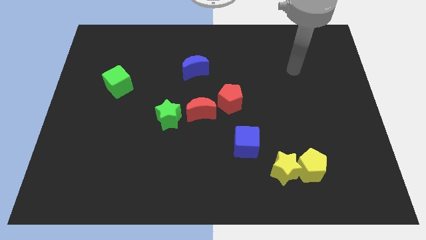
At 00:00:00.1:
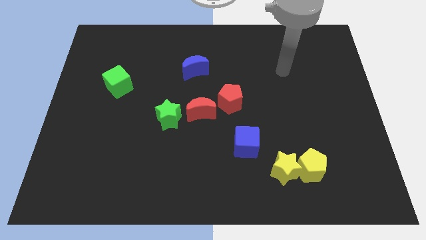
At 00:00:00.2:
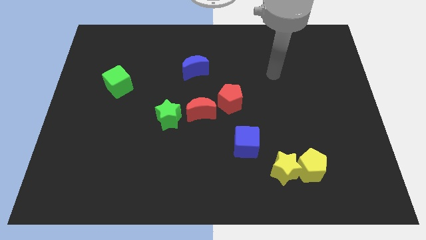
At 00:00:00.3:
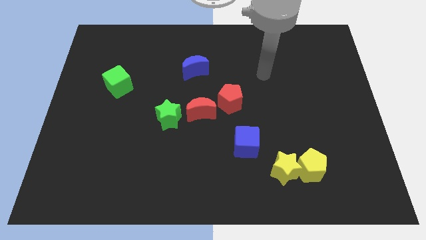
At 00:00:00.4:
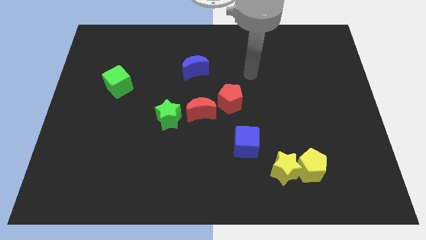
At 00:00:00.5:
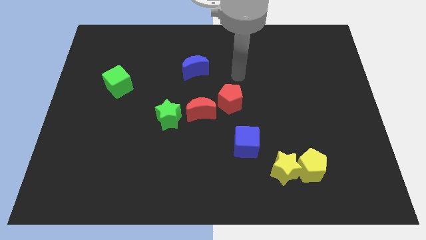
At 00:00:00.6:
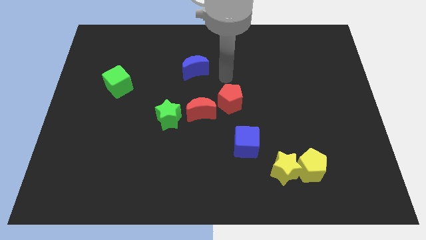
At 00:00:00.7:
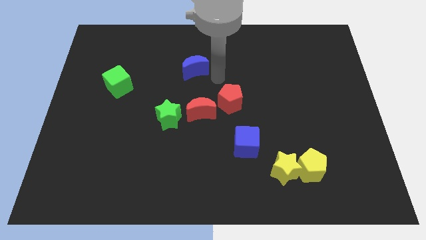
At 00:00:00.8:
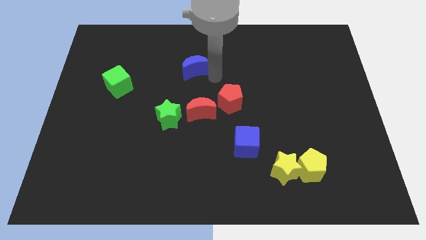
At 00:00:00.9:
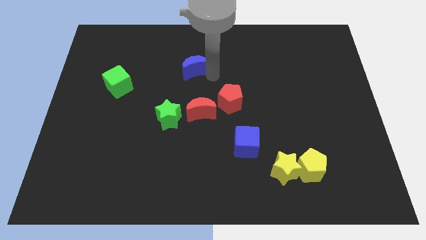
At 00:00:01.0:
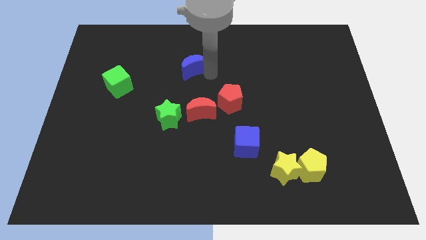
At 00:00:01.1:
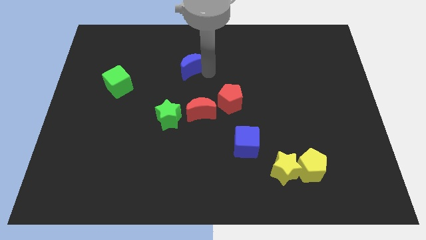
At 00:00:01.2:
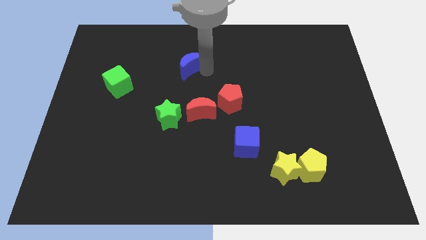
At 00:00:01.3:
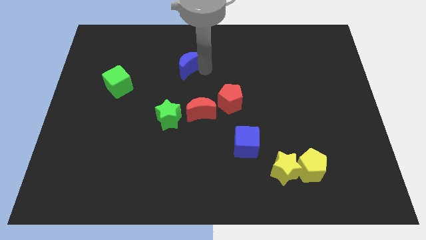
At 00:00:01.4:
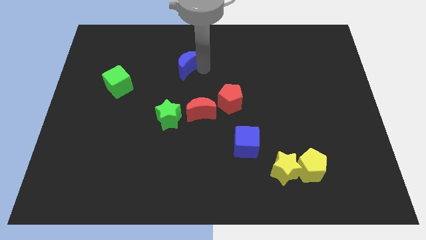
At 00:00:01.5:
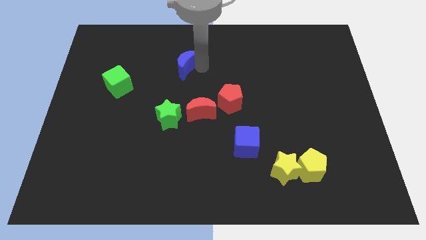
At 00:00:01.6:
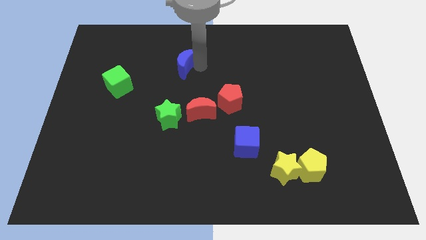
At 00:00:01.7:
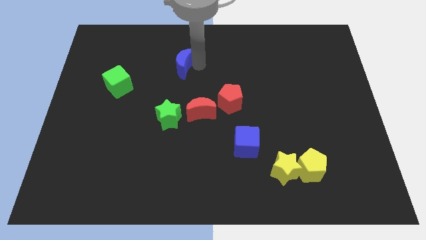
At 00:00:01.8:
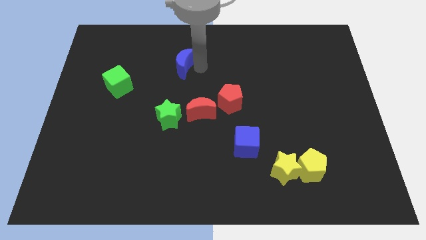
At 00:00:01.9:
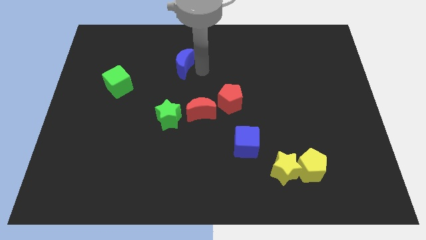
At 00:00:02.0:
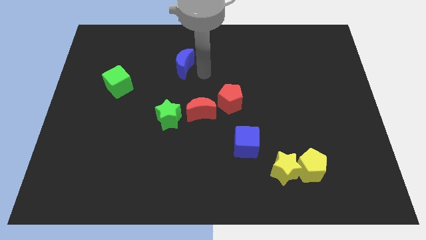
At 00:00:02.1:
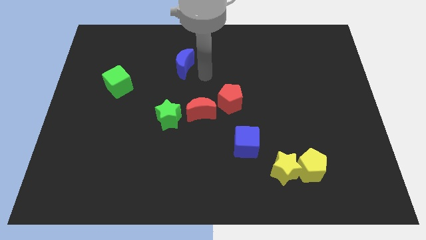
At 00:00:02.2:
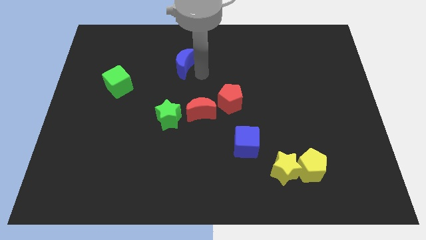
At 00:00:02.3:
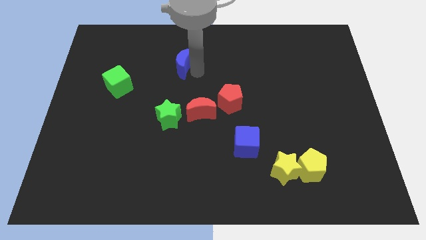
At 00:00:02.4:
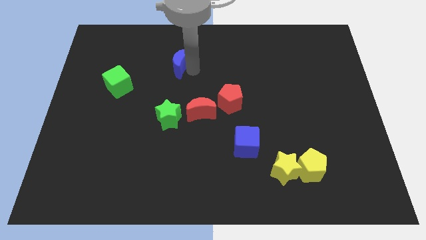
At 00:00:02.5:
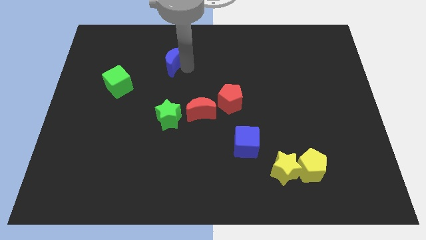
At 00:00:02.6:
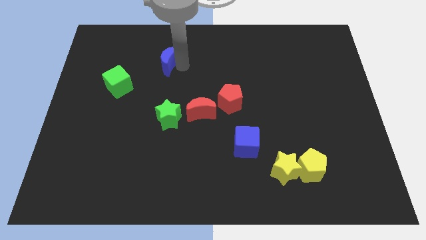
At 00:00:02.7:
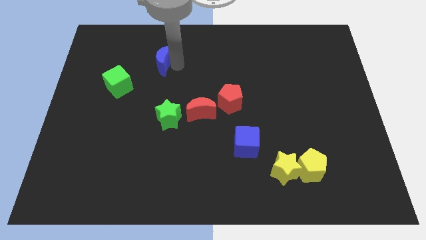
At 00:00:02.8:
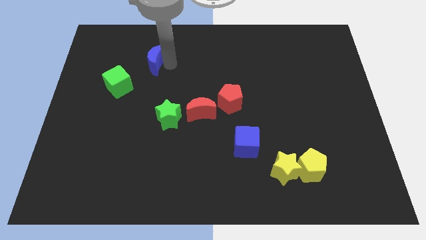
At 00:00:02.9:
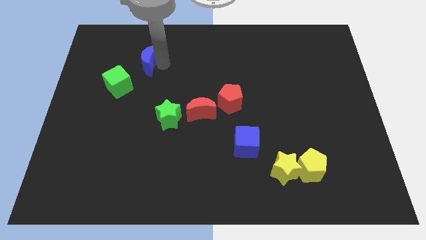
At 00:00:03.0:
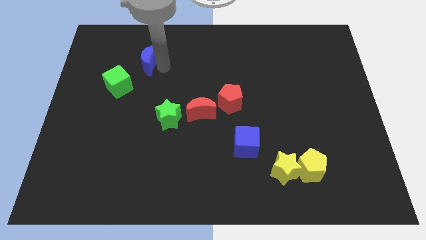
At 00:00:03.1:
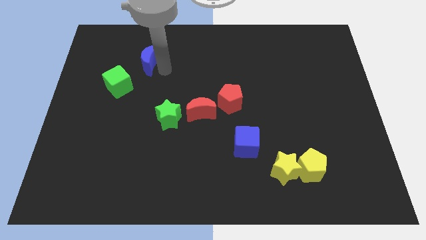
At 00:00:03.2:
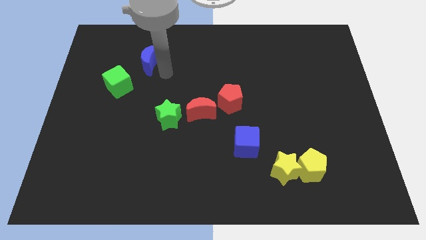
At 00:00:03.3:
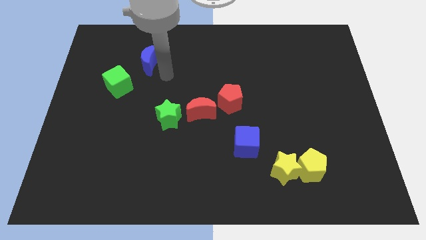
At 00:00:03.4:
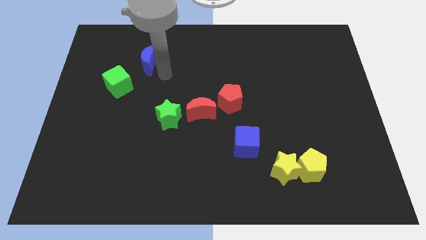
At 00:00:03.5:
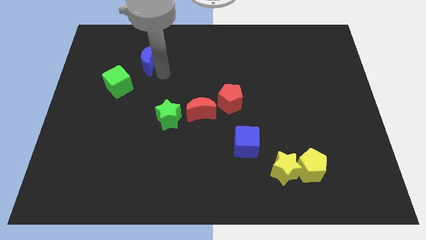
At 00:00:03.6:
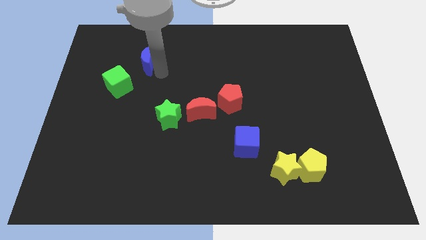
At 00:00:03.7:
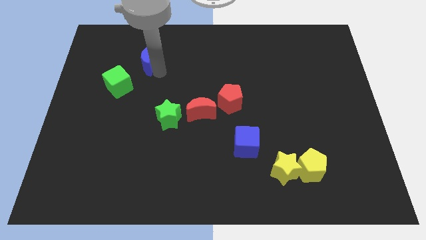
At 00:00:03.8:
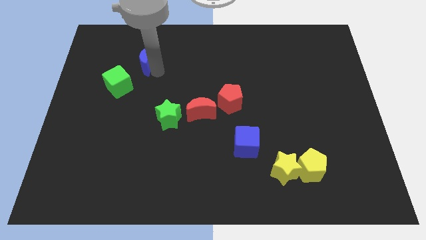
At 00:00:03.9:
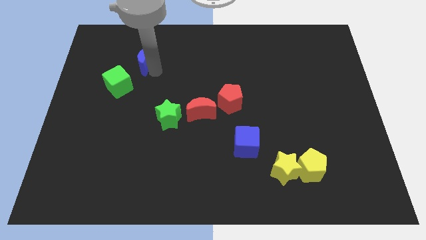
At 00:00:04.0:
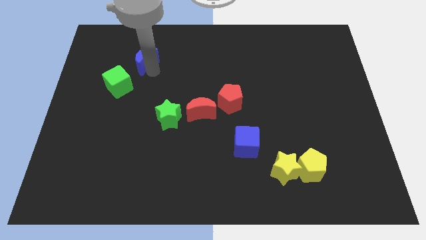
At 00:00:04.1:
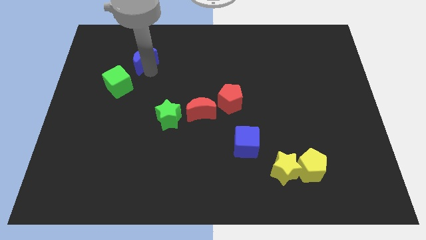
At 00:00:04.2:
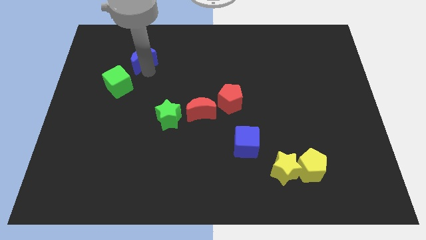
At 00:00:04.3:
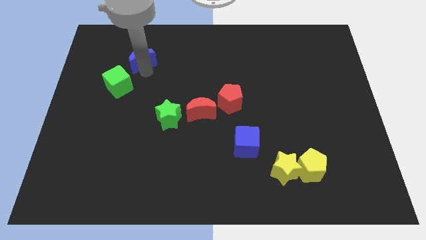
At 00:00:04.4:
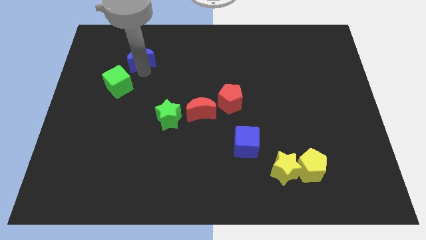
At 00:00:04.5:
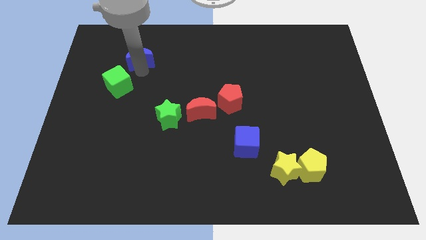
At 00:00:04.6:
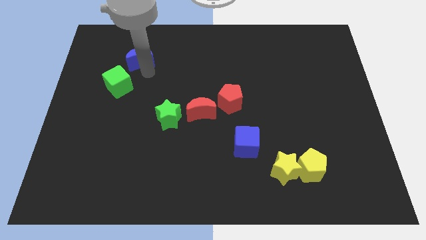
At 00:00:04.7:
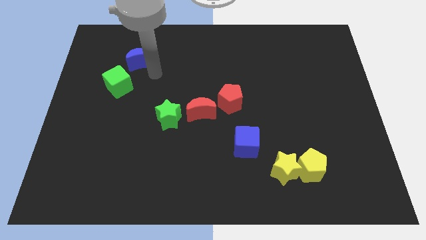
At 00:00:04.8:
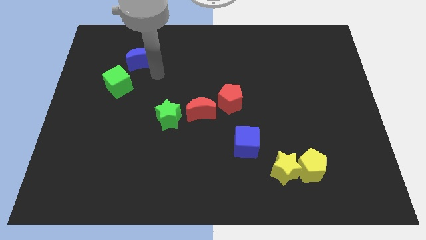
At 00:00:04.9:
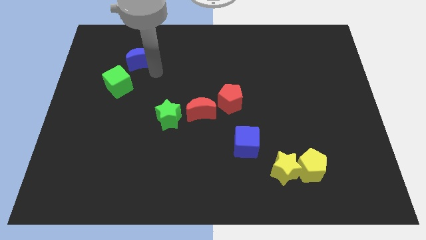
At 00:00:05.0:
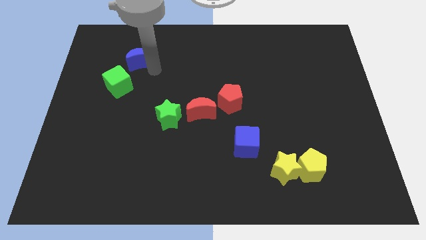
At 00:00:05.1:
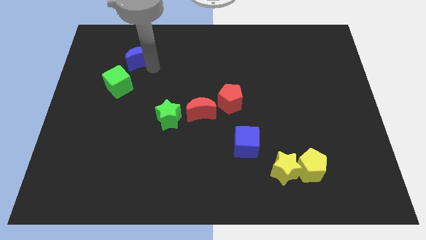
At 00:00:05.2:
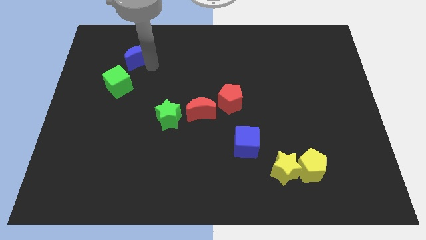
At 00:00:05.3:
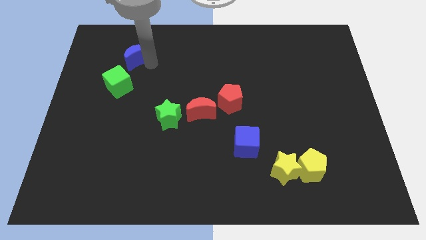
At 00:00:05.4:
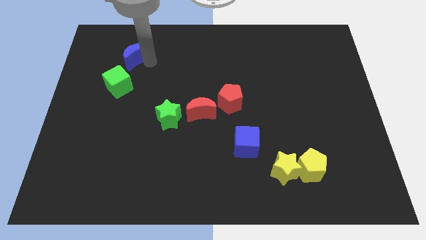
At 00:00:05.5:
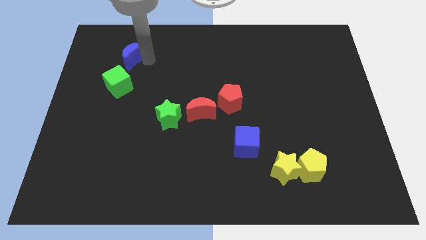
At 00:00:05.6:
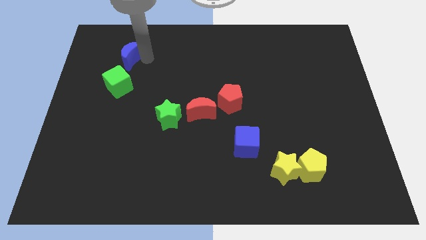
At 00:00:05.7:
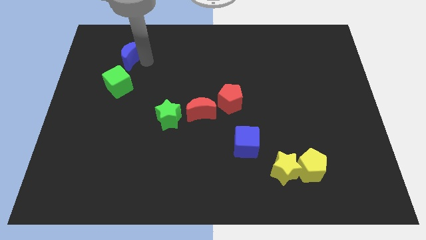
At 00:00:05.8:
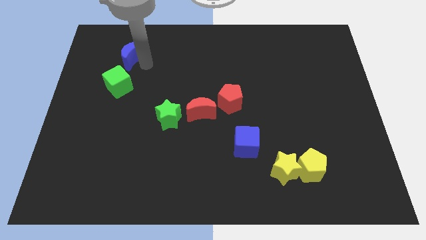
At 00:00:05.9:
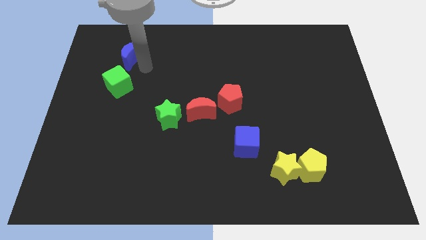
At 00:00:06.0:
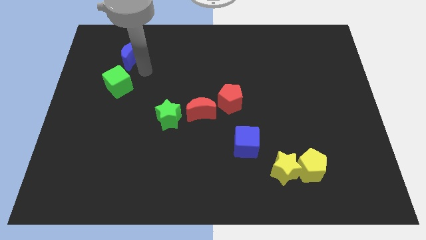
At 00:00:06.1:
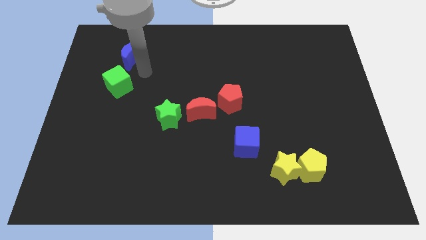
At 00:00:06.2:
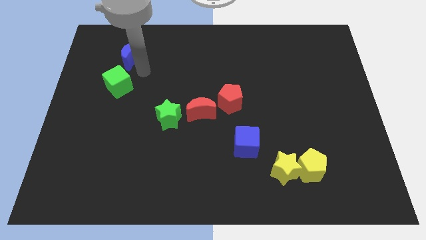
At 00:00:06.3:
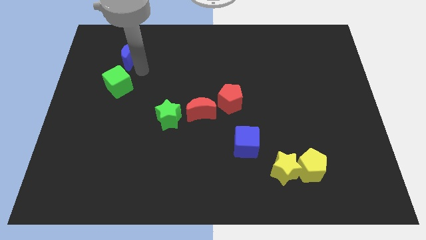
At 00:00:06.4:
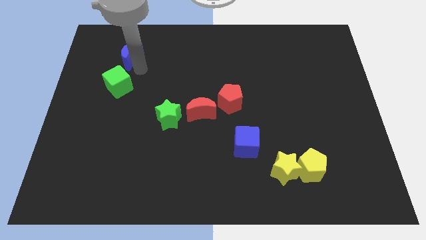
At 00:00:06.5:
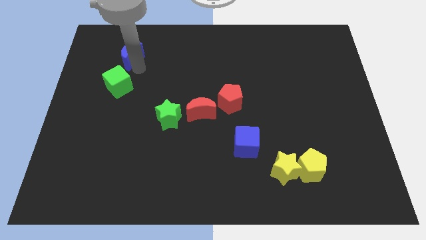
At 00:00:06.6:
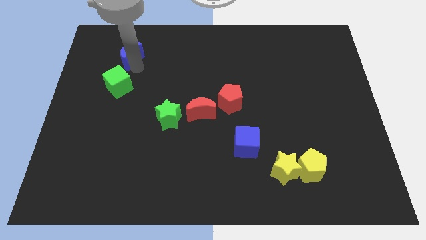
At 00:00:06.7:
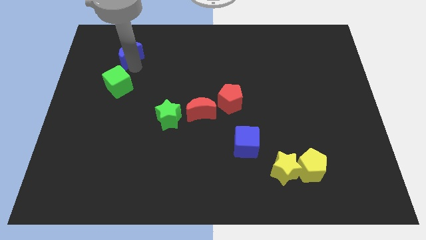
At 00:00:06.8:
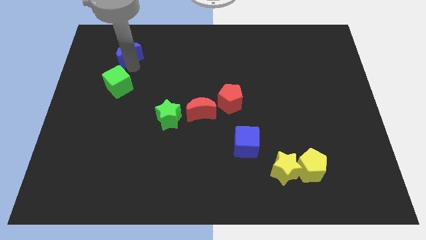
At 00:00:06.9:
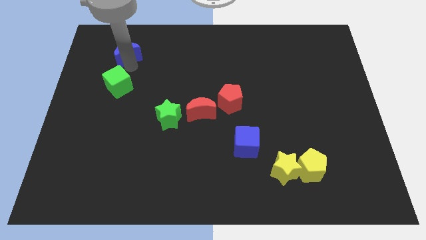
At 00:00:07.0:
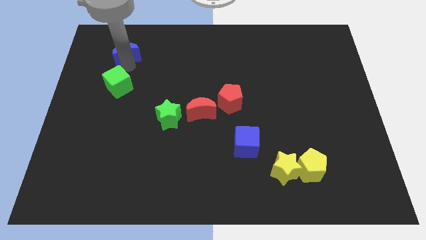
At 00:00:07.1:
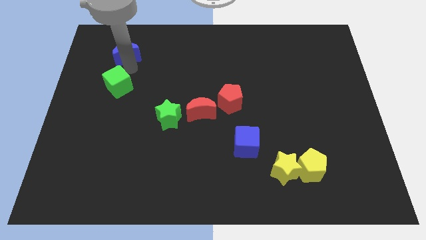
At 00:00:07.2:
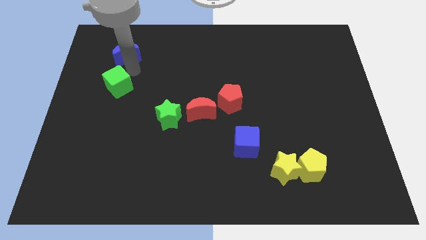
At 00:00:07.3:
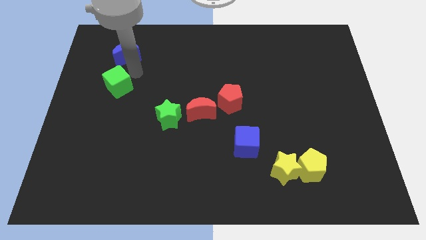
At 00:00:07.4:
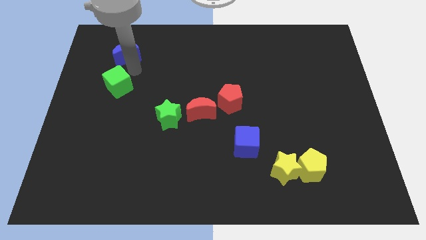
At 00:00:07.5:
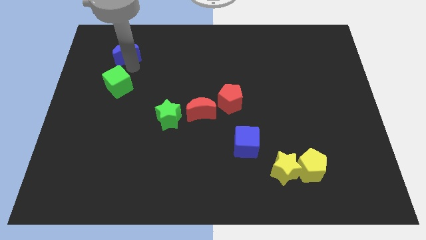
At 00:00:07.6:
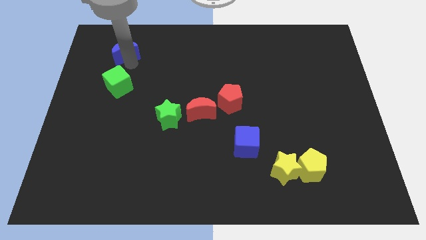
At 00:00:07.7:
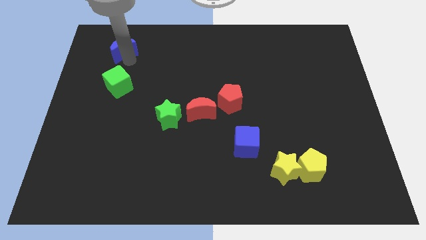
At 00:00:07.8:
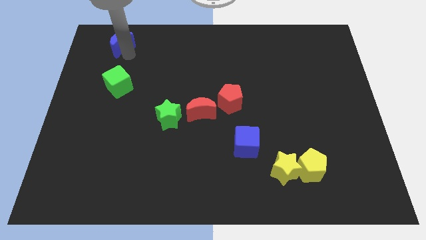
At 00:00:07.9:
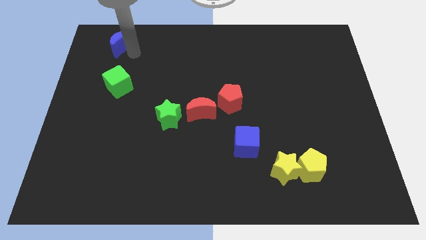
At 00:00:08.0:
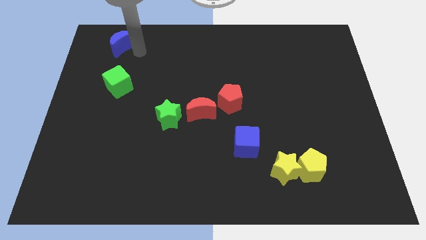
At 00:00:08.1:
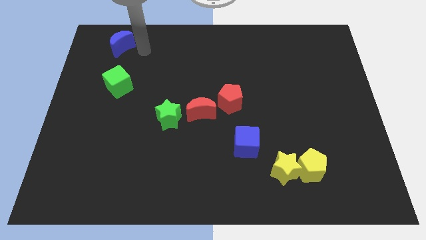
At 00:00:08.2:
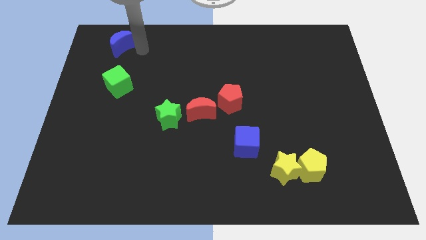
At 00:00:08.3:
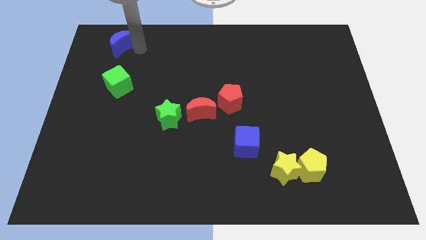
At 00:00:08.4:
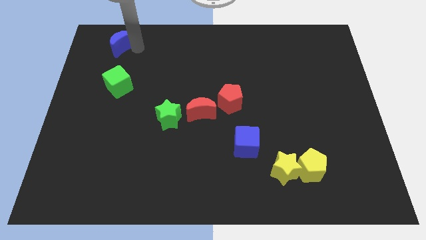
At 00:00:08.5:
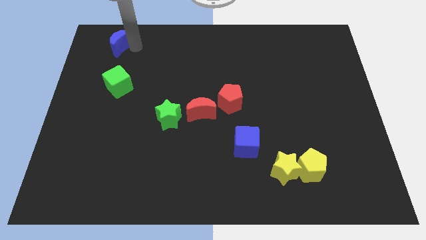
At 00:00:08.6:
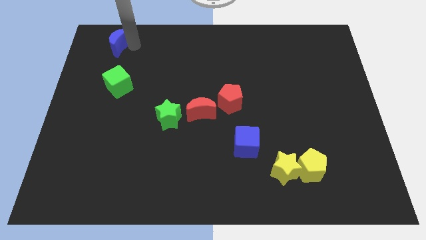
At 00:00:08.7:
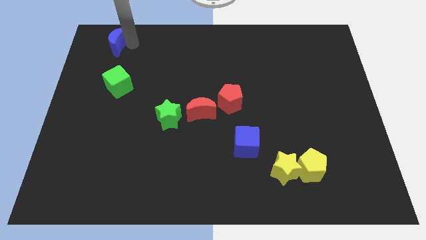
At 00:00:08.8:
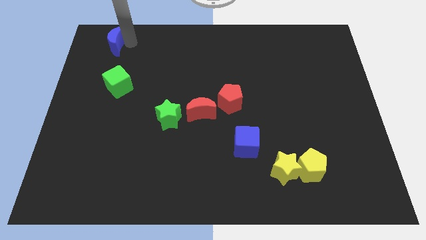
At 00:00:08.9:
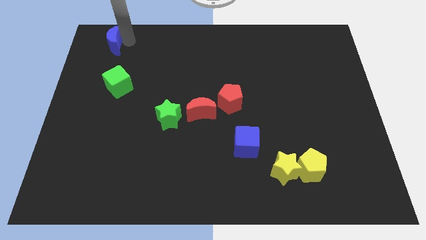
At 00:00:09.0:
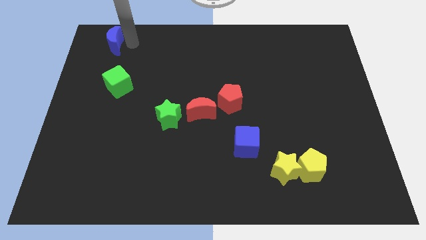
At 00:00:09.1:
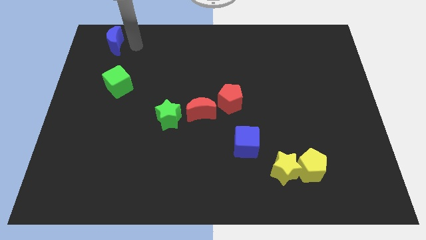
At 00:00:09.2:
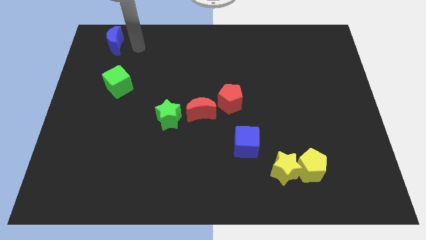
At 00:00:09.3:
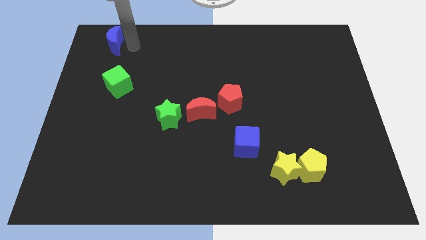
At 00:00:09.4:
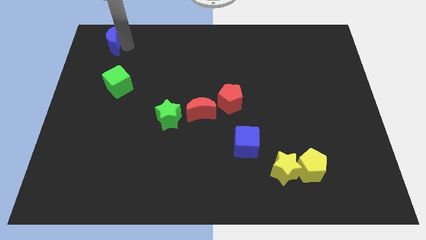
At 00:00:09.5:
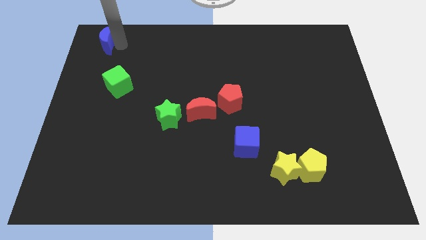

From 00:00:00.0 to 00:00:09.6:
move the blue moon to the top left of the board
